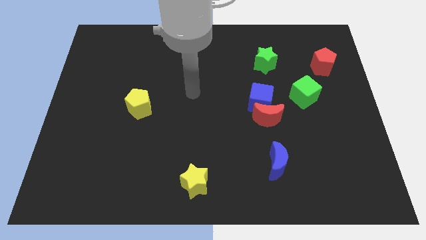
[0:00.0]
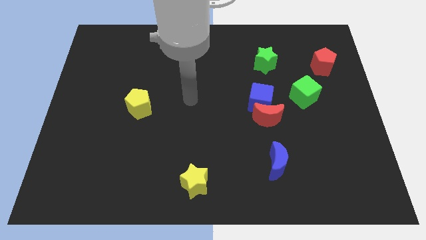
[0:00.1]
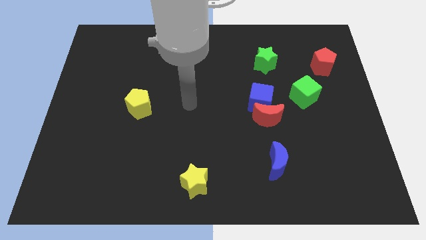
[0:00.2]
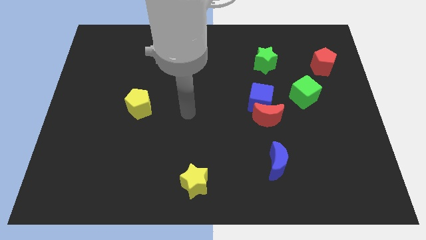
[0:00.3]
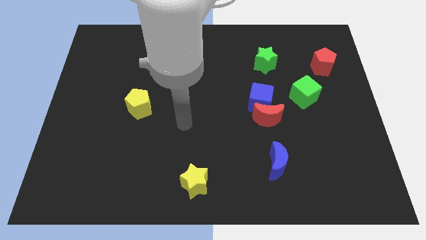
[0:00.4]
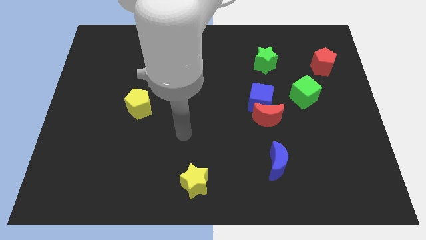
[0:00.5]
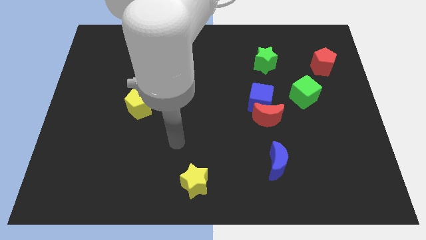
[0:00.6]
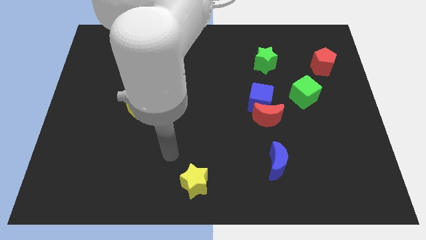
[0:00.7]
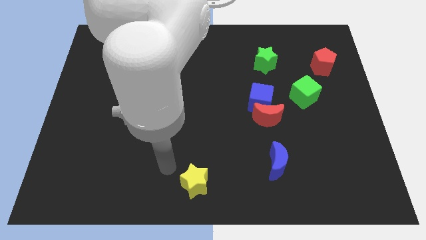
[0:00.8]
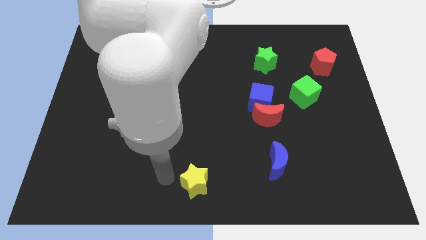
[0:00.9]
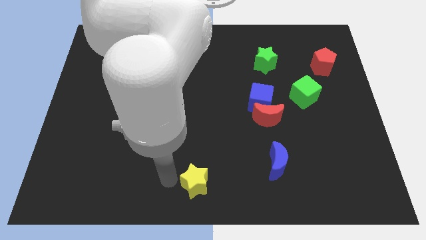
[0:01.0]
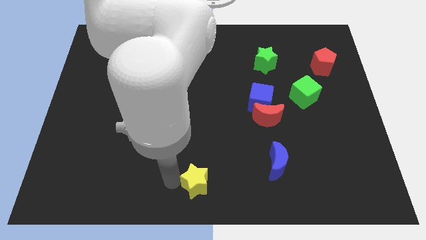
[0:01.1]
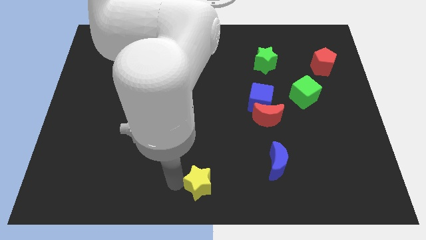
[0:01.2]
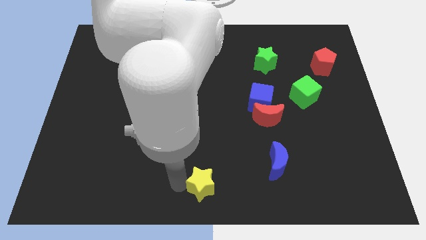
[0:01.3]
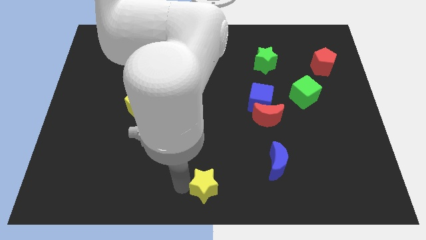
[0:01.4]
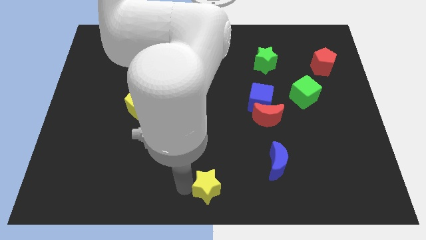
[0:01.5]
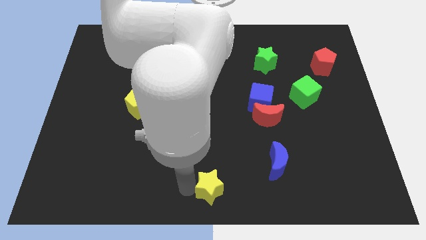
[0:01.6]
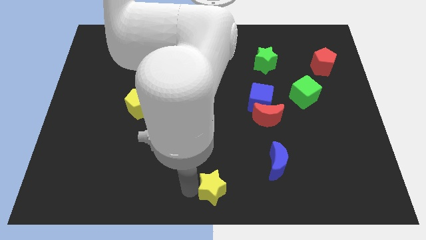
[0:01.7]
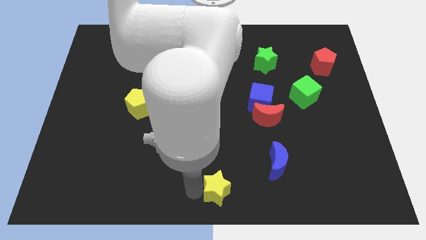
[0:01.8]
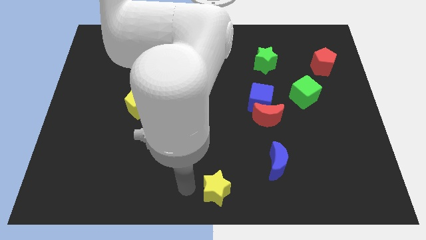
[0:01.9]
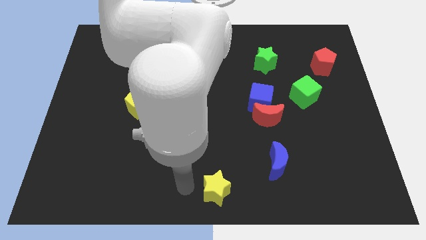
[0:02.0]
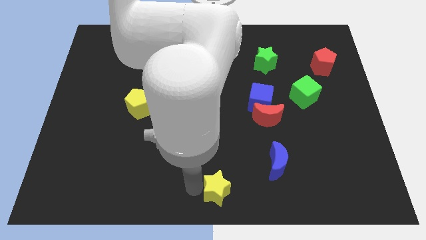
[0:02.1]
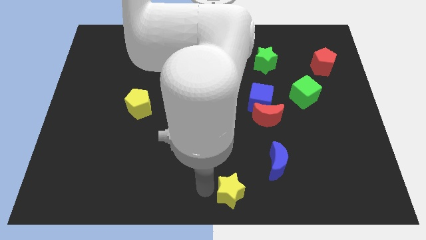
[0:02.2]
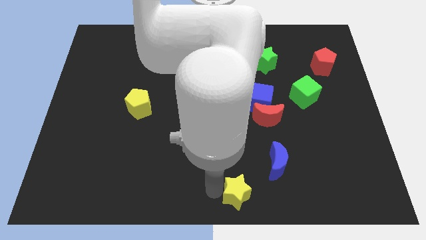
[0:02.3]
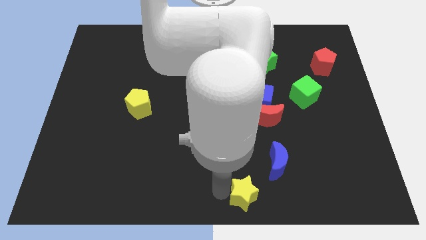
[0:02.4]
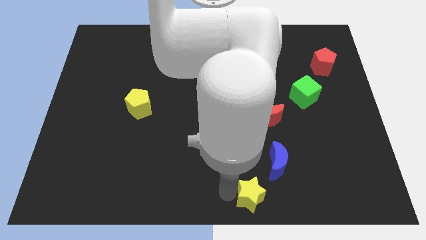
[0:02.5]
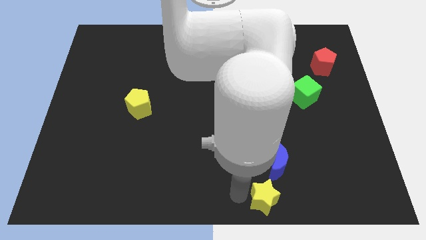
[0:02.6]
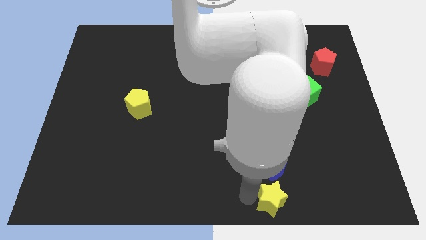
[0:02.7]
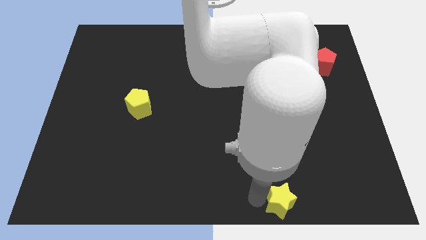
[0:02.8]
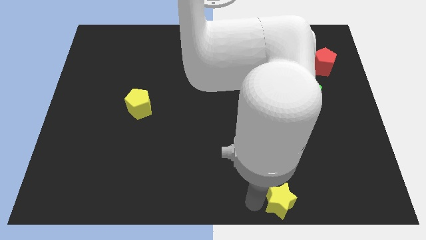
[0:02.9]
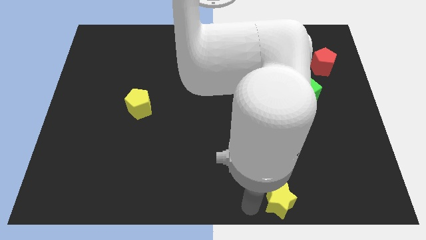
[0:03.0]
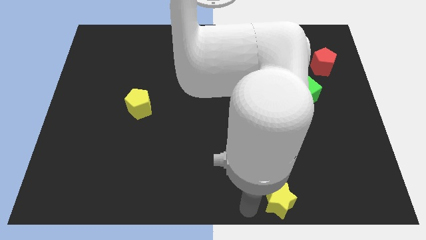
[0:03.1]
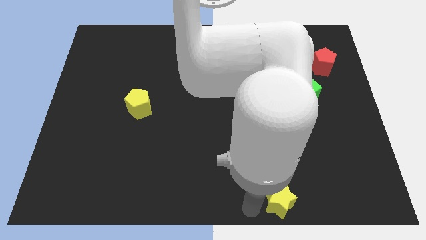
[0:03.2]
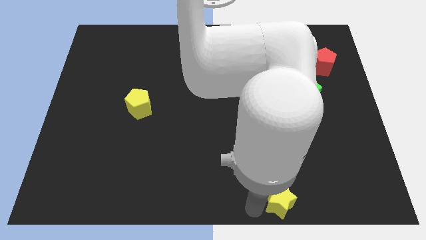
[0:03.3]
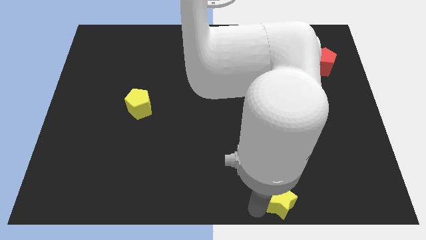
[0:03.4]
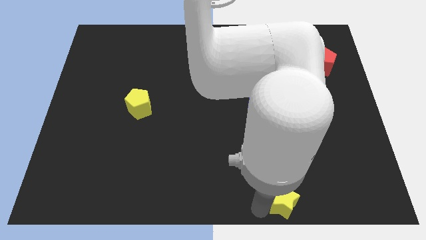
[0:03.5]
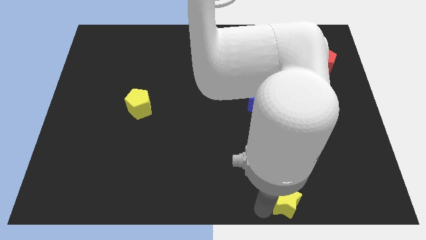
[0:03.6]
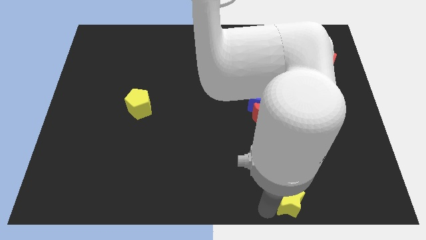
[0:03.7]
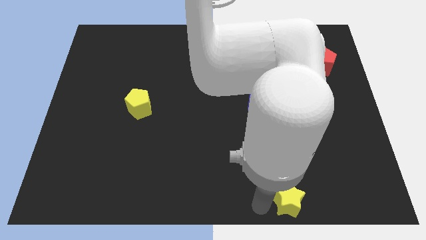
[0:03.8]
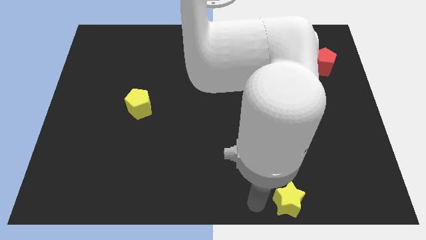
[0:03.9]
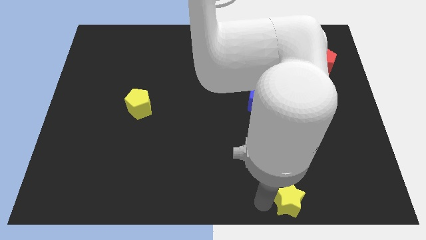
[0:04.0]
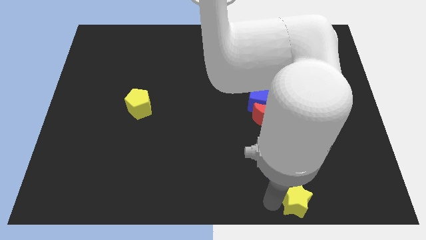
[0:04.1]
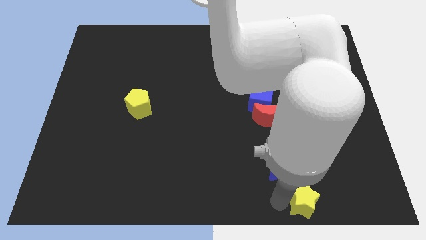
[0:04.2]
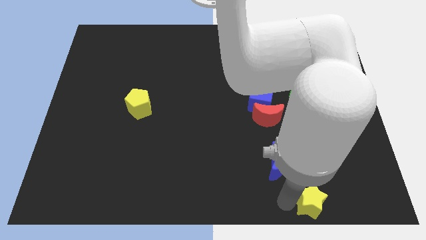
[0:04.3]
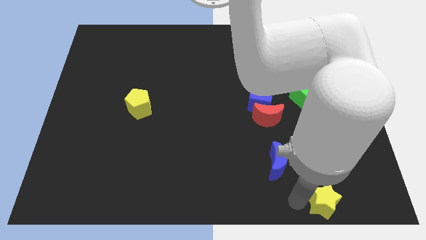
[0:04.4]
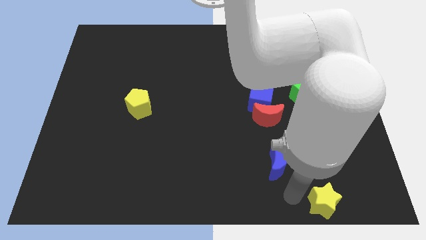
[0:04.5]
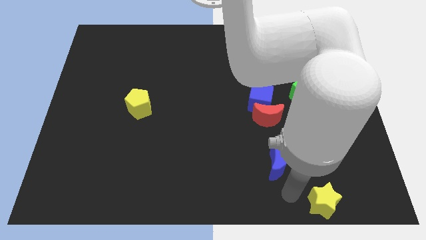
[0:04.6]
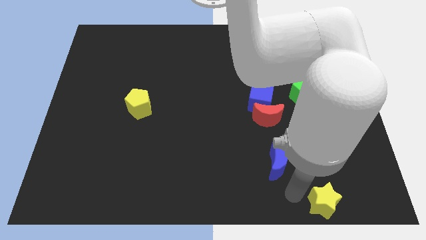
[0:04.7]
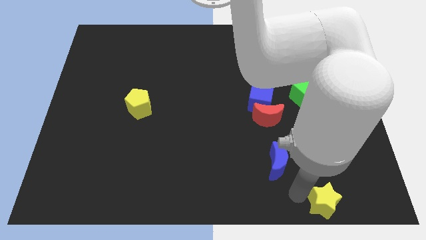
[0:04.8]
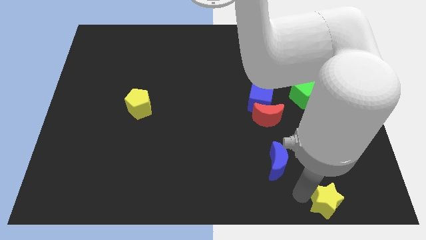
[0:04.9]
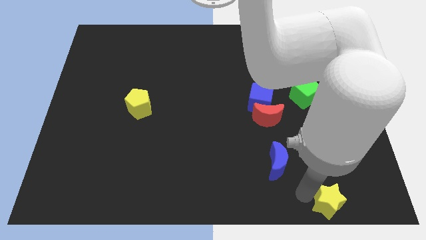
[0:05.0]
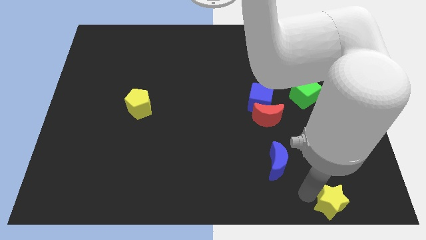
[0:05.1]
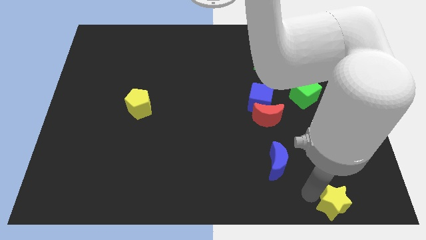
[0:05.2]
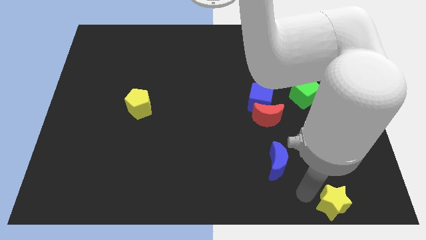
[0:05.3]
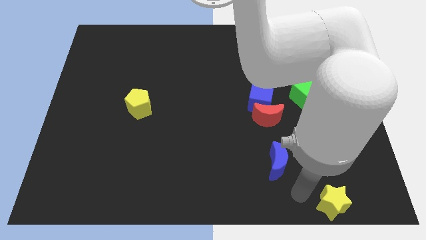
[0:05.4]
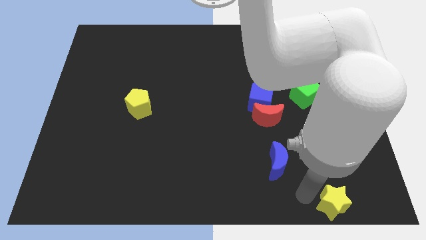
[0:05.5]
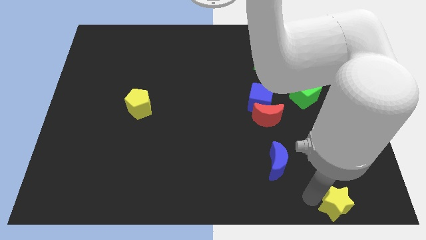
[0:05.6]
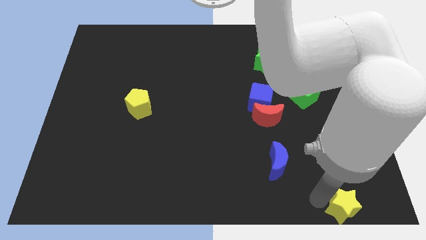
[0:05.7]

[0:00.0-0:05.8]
push the yellow star to the bottom right of the board

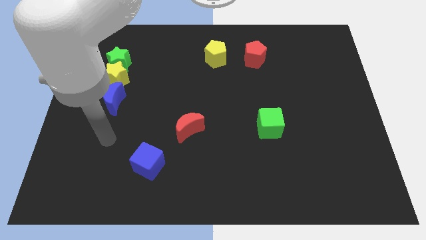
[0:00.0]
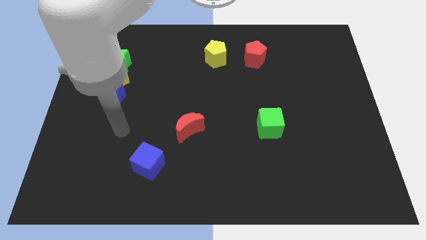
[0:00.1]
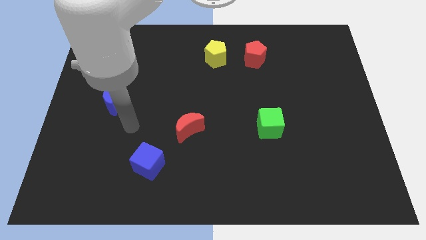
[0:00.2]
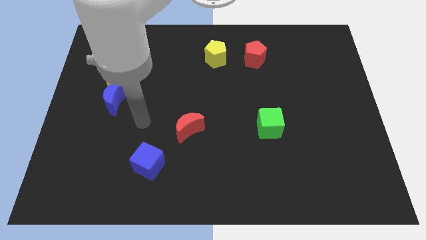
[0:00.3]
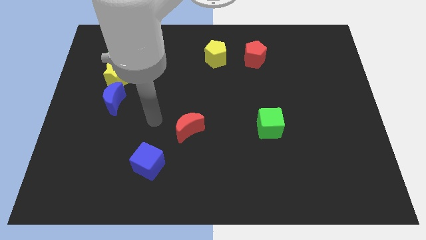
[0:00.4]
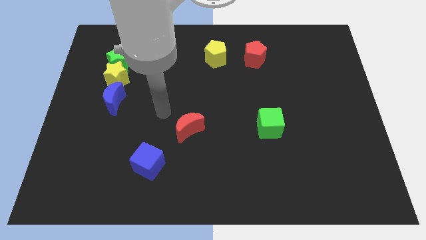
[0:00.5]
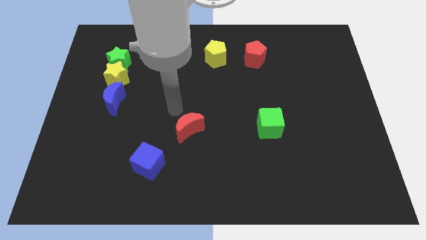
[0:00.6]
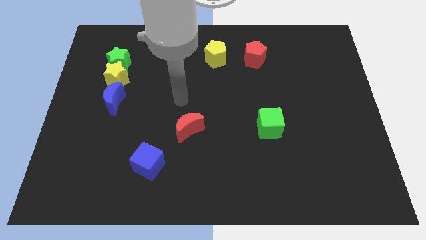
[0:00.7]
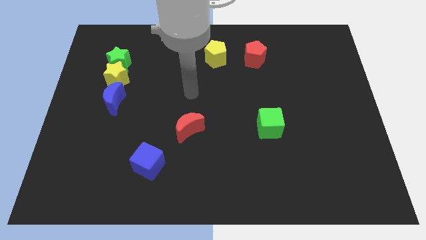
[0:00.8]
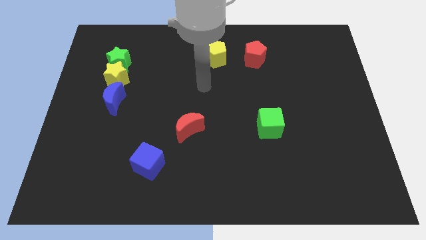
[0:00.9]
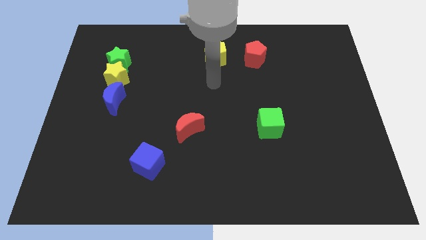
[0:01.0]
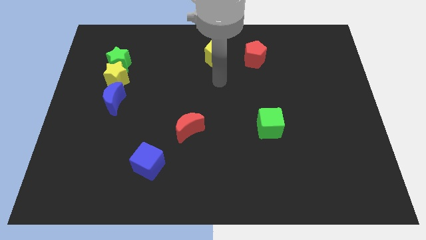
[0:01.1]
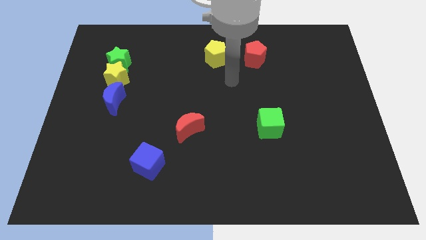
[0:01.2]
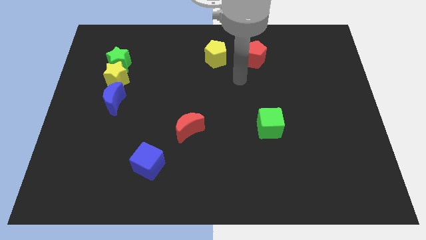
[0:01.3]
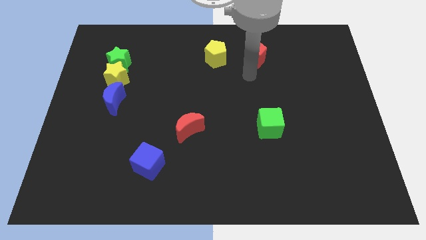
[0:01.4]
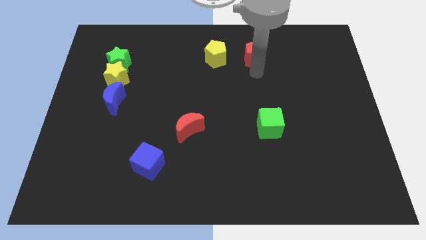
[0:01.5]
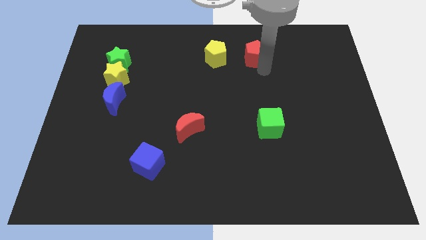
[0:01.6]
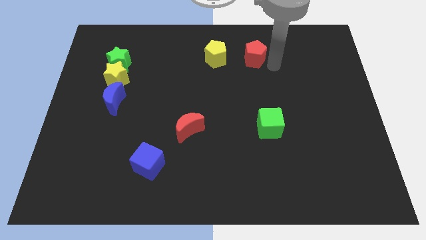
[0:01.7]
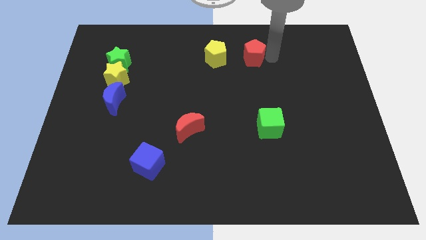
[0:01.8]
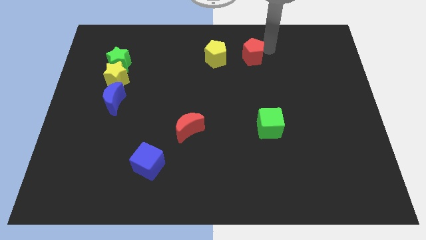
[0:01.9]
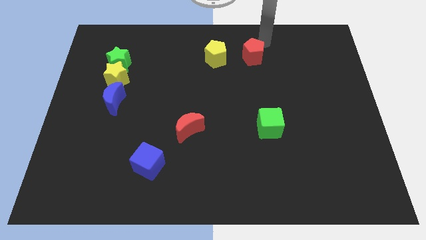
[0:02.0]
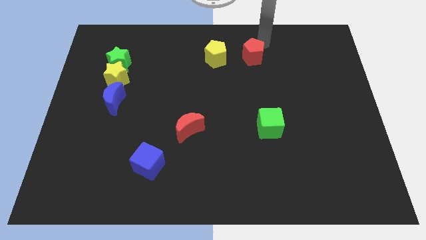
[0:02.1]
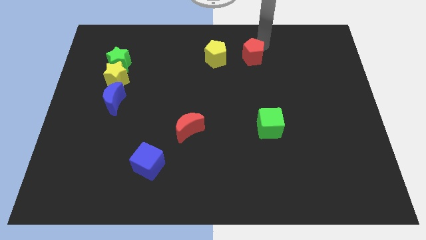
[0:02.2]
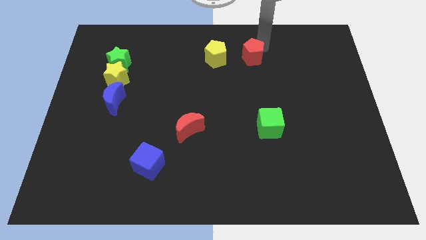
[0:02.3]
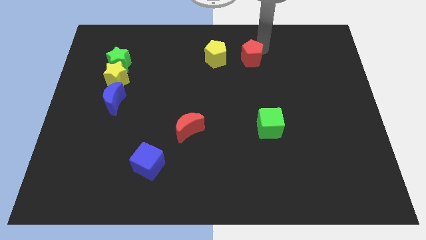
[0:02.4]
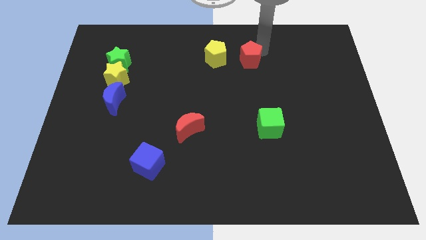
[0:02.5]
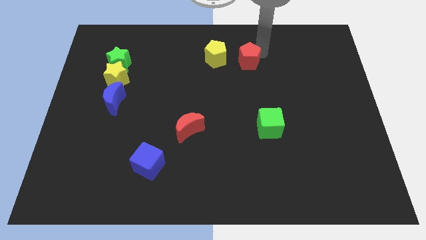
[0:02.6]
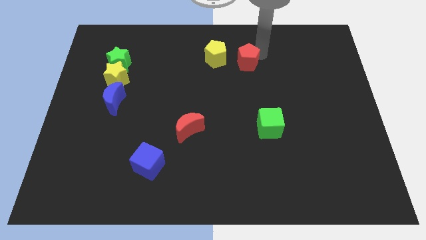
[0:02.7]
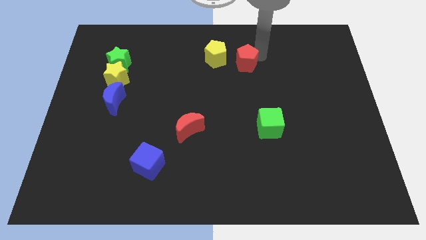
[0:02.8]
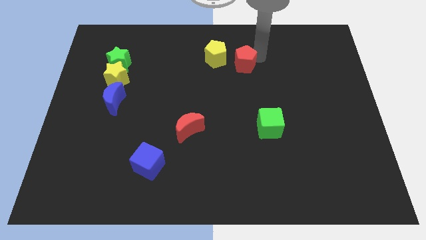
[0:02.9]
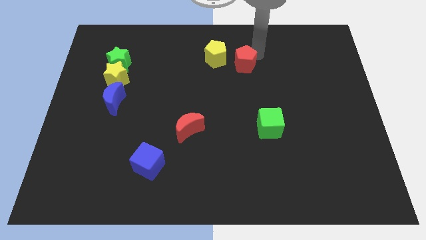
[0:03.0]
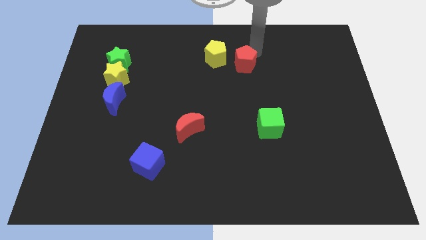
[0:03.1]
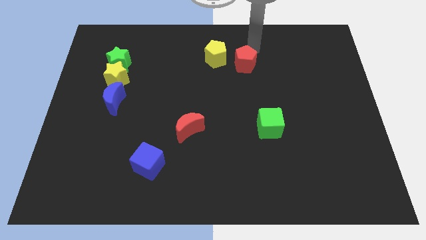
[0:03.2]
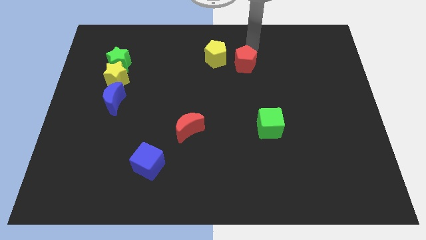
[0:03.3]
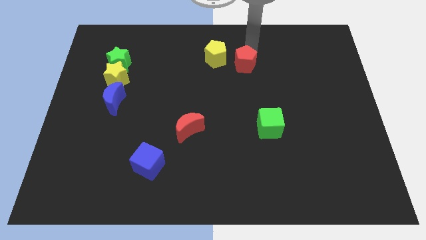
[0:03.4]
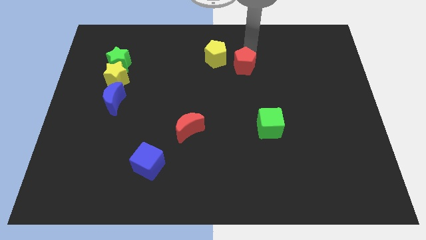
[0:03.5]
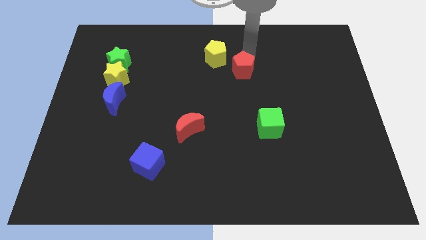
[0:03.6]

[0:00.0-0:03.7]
slide the red pentagon to the middle
